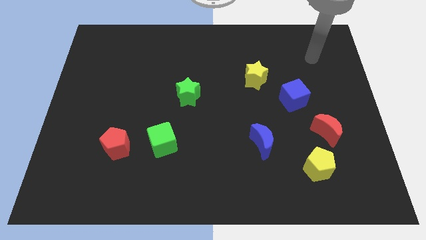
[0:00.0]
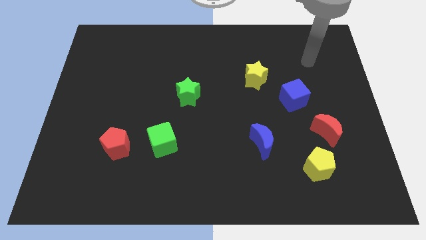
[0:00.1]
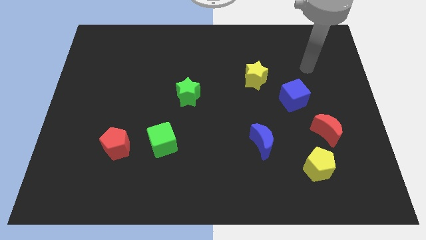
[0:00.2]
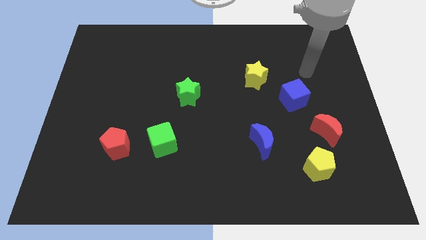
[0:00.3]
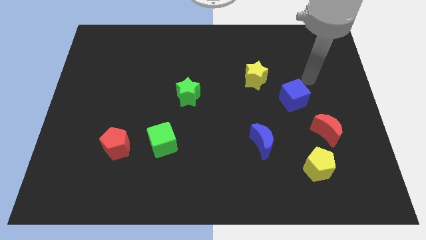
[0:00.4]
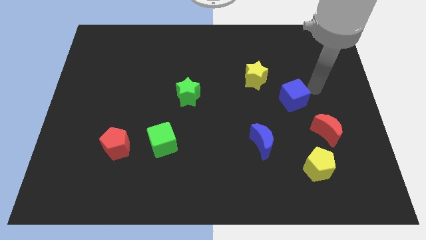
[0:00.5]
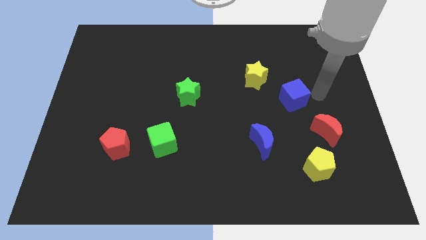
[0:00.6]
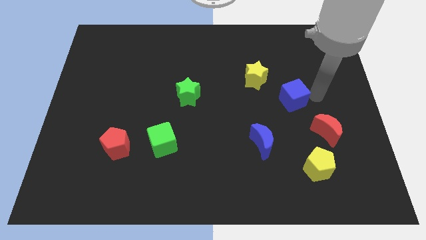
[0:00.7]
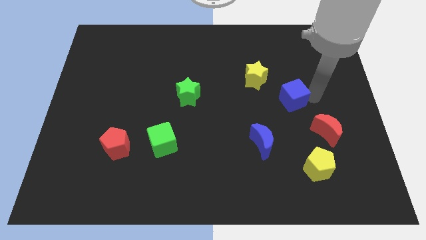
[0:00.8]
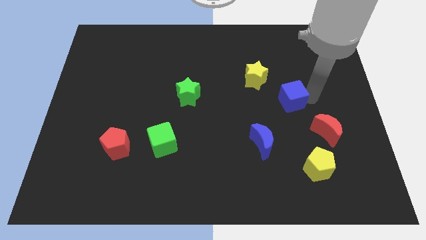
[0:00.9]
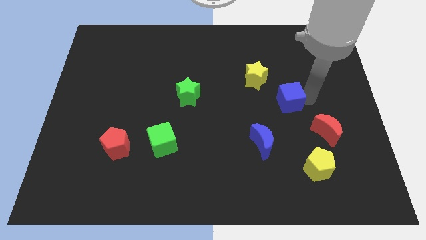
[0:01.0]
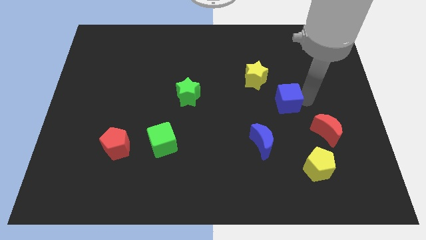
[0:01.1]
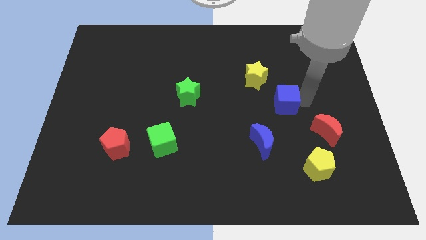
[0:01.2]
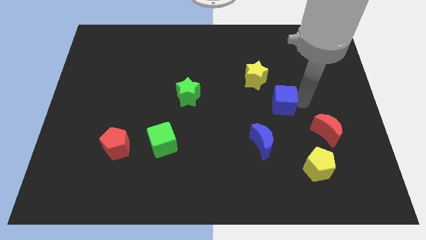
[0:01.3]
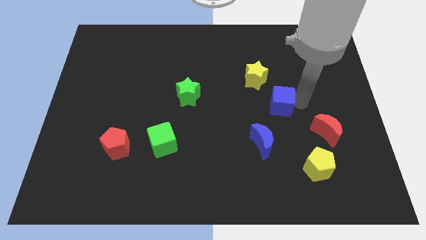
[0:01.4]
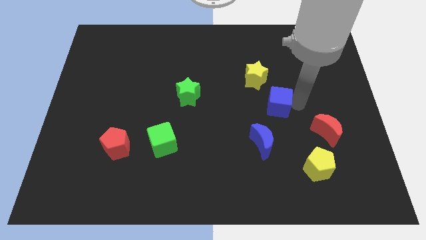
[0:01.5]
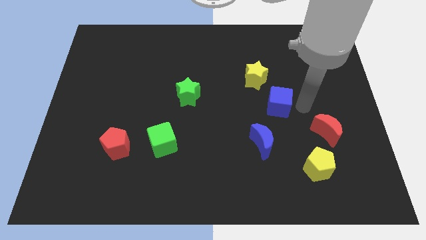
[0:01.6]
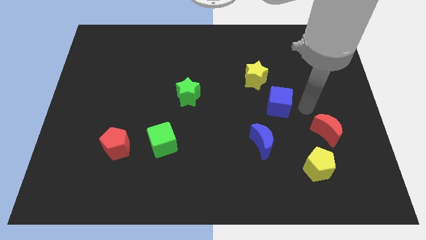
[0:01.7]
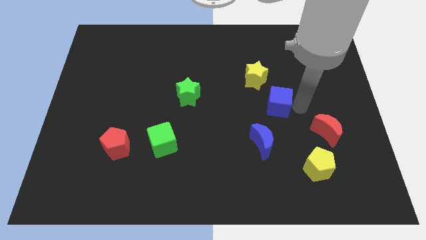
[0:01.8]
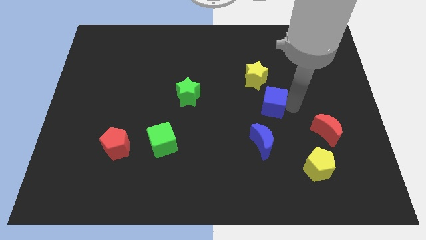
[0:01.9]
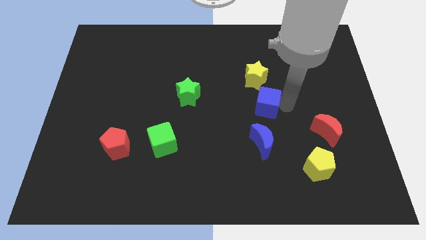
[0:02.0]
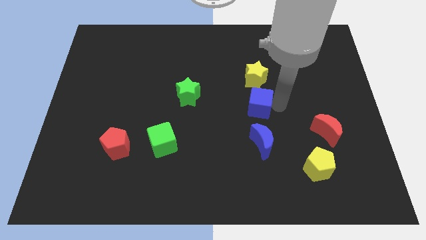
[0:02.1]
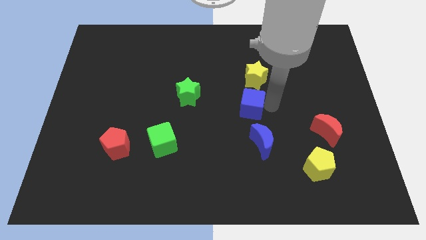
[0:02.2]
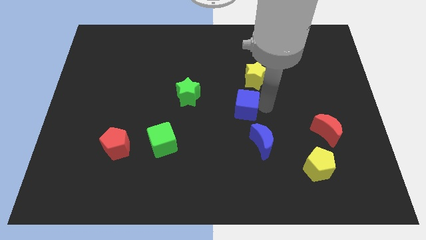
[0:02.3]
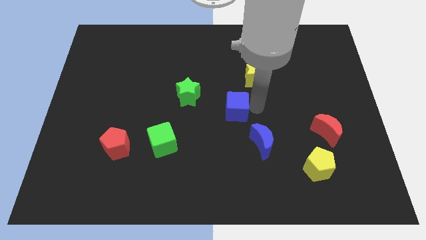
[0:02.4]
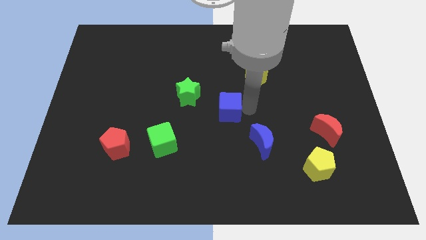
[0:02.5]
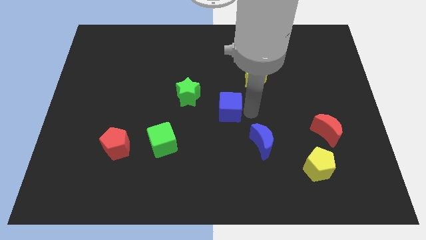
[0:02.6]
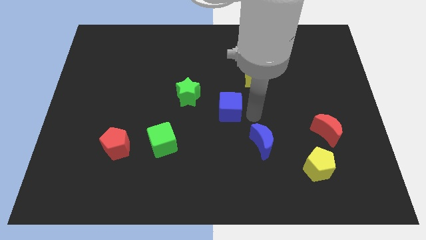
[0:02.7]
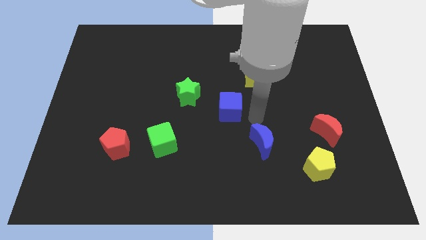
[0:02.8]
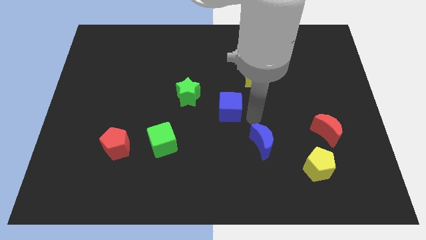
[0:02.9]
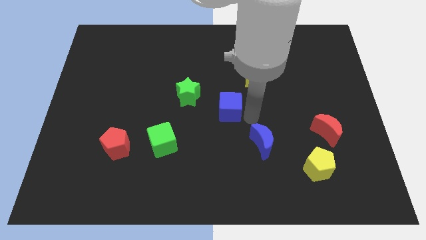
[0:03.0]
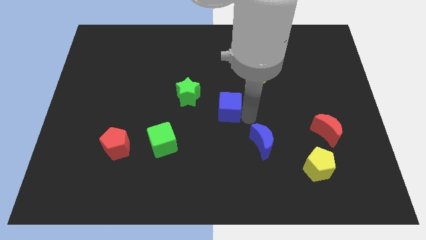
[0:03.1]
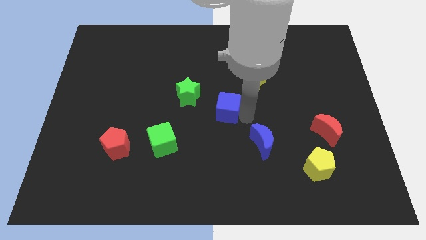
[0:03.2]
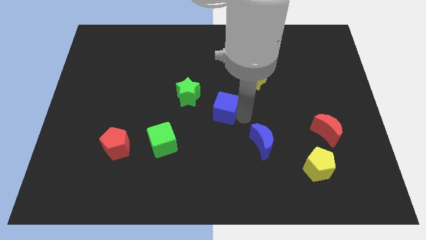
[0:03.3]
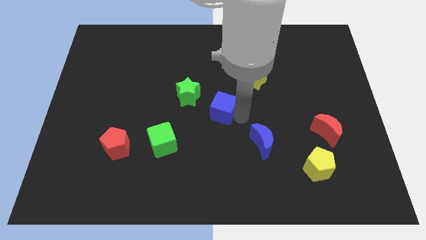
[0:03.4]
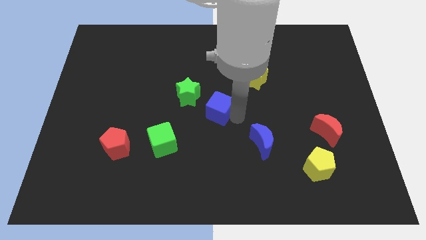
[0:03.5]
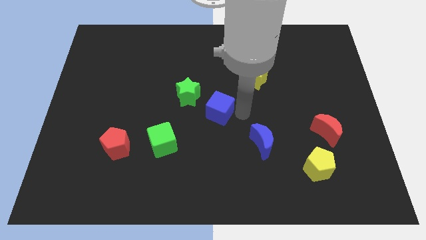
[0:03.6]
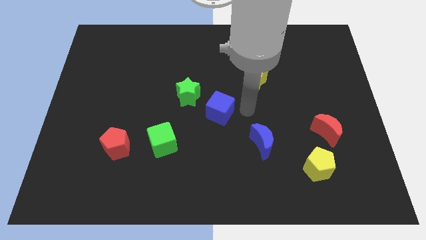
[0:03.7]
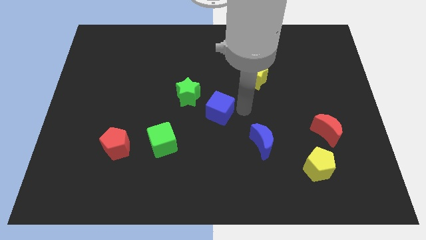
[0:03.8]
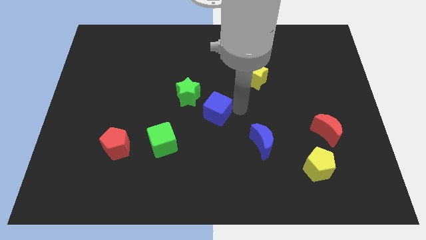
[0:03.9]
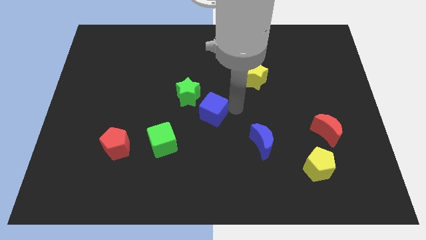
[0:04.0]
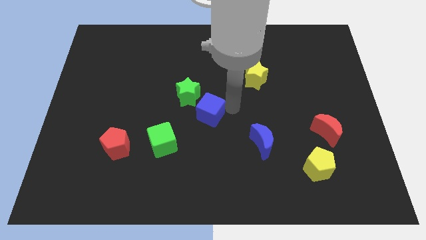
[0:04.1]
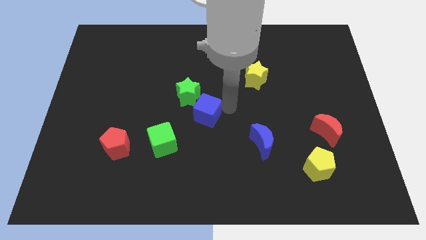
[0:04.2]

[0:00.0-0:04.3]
slide the blue cube left

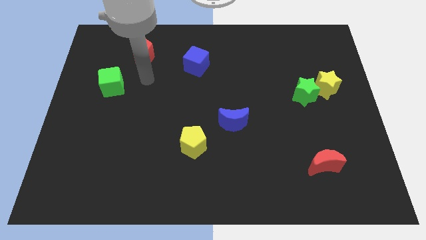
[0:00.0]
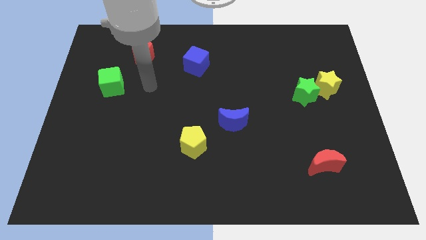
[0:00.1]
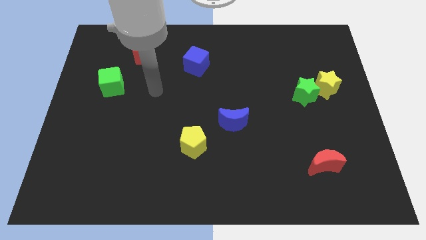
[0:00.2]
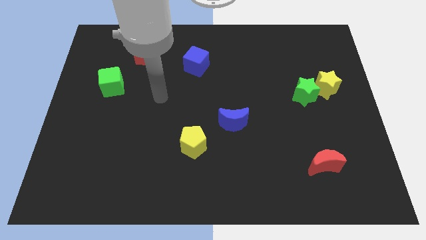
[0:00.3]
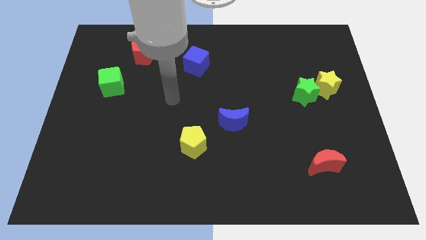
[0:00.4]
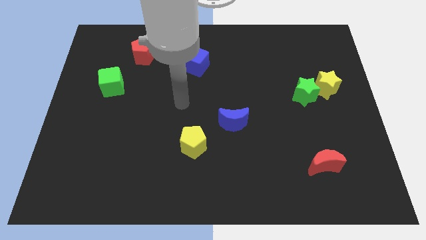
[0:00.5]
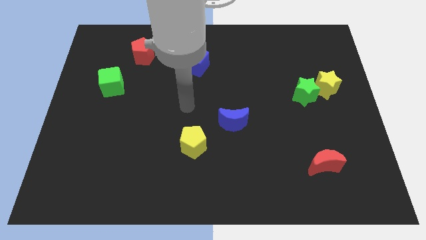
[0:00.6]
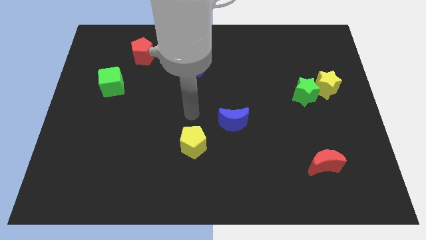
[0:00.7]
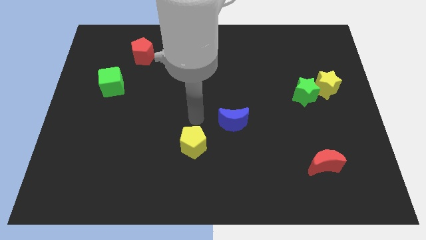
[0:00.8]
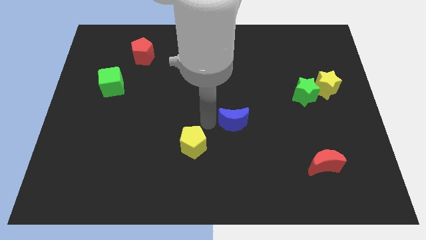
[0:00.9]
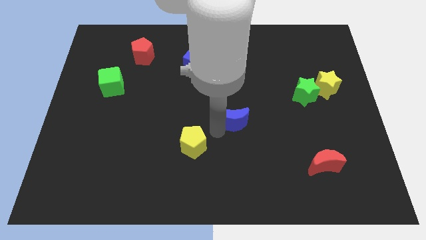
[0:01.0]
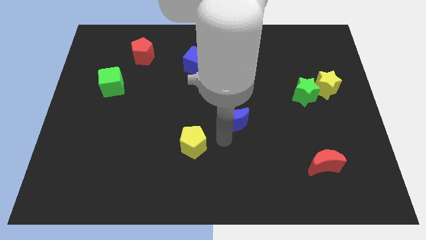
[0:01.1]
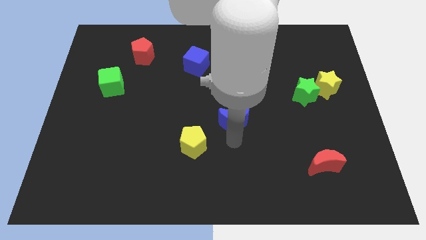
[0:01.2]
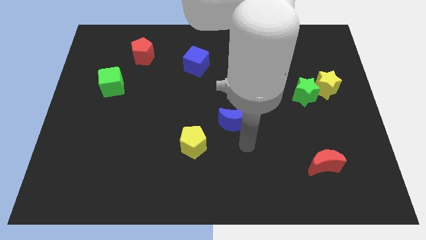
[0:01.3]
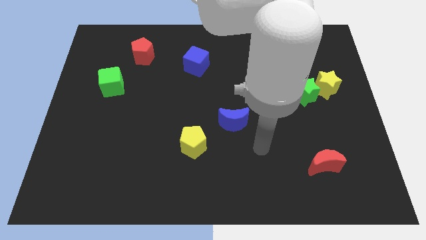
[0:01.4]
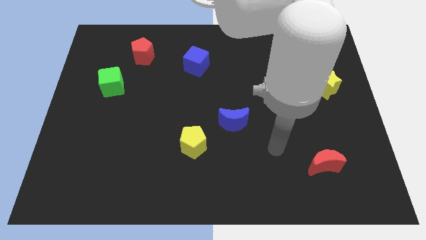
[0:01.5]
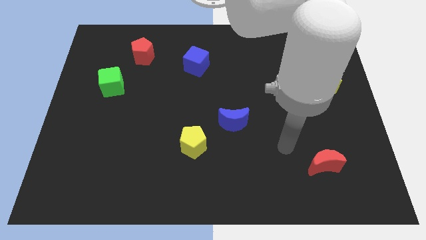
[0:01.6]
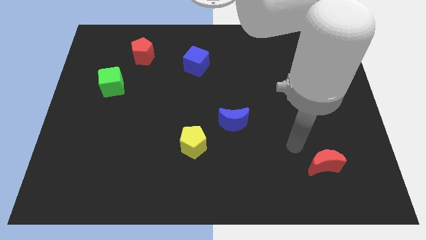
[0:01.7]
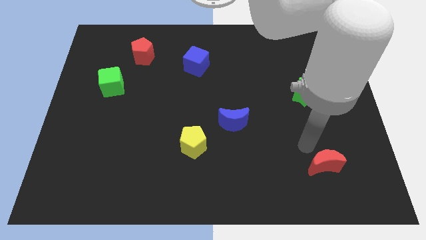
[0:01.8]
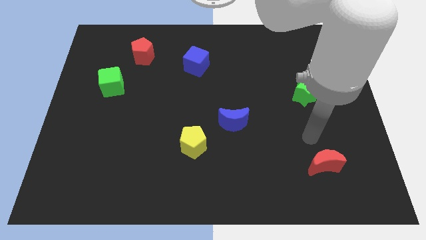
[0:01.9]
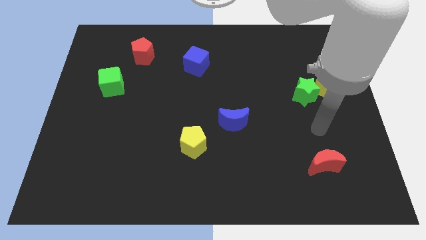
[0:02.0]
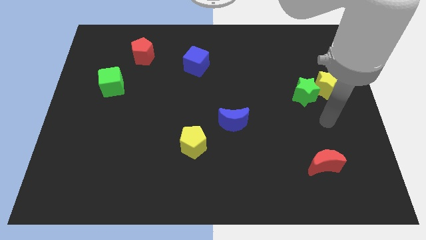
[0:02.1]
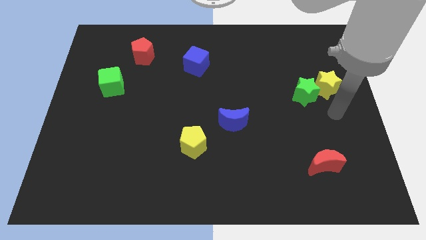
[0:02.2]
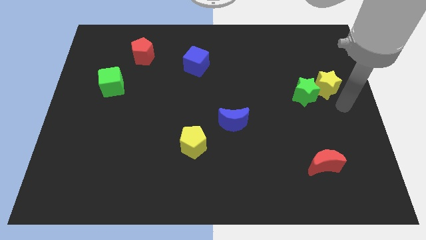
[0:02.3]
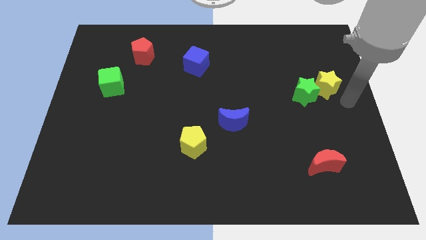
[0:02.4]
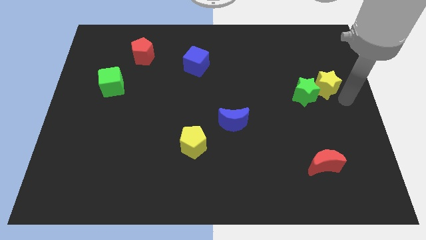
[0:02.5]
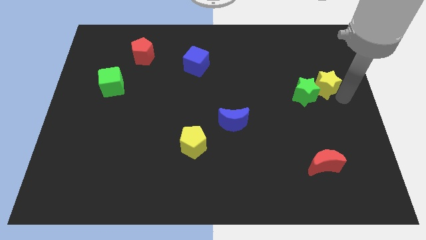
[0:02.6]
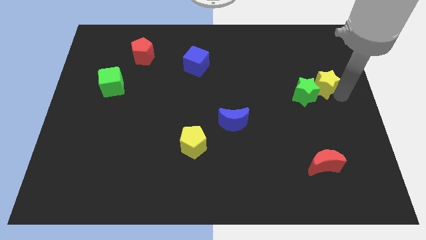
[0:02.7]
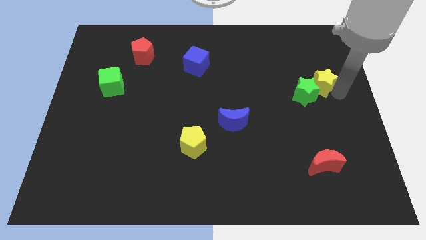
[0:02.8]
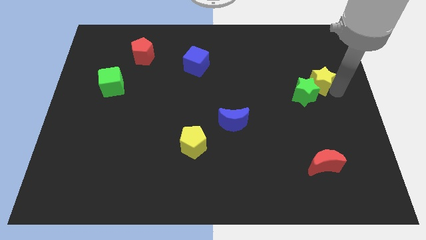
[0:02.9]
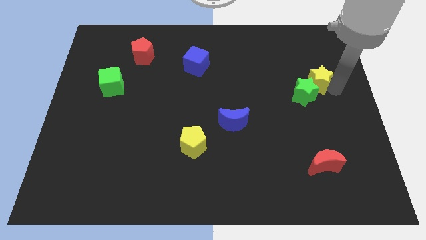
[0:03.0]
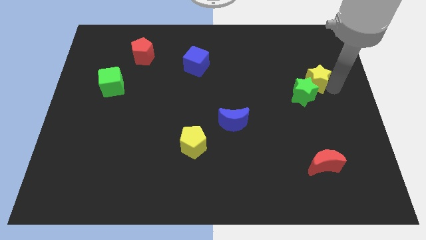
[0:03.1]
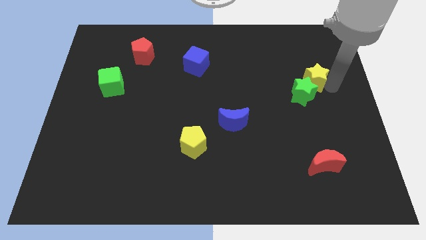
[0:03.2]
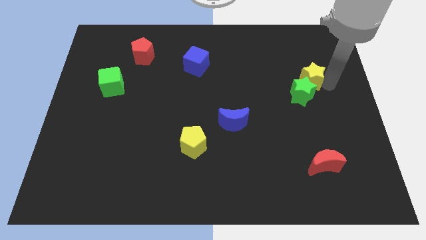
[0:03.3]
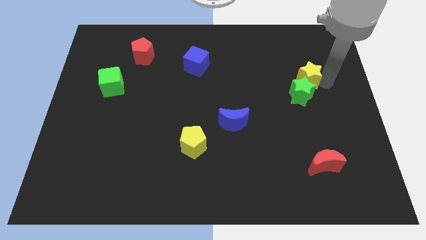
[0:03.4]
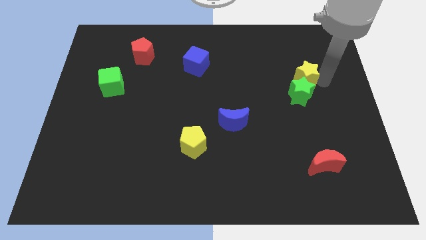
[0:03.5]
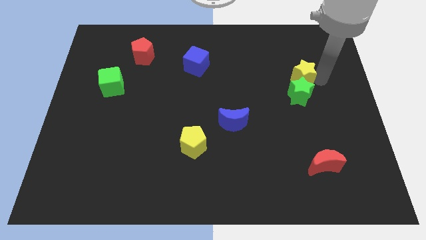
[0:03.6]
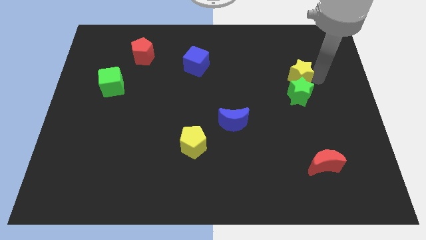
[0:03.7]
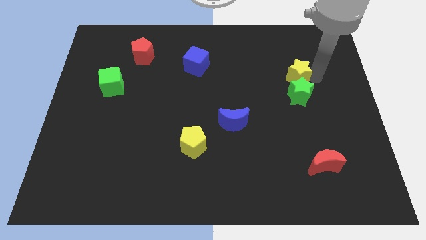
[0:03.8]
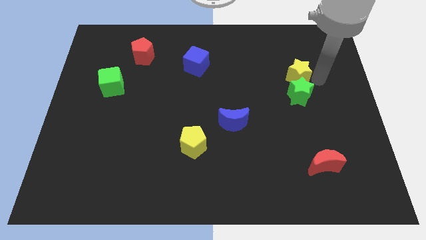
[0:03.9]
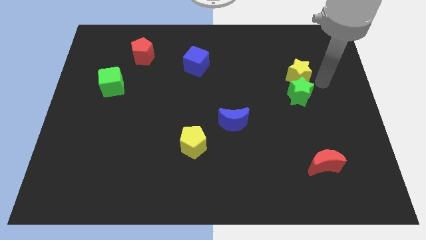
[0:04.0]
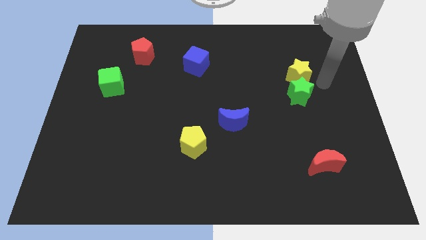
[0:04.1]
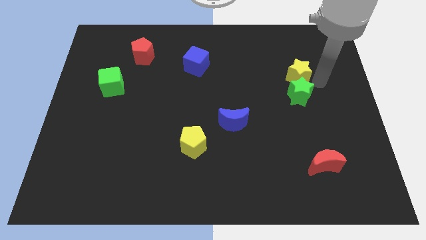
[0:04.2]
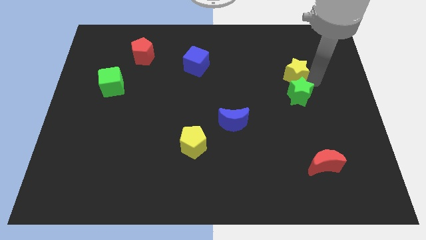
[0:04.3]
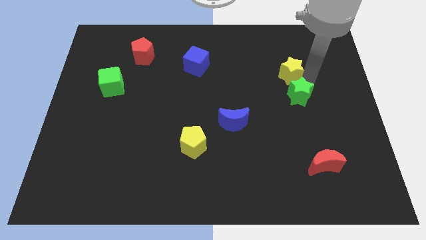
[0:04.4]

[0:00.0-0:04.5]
move the yellow star to the left slightly
